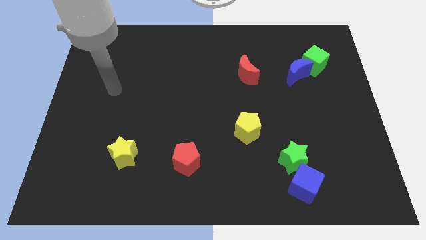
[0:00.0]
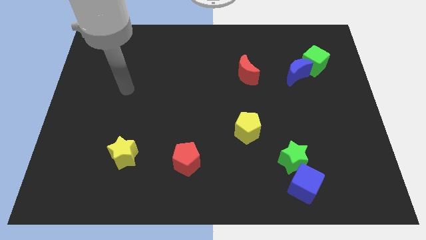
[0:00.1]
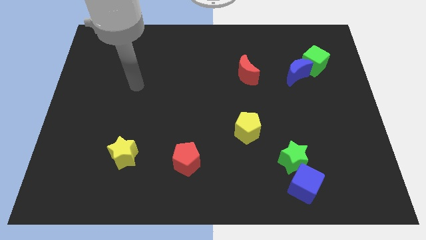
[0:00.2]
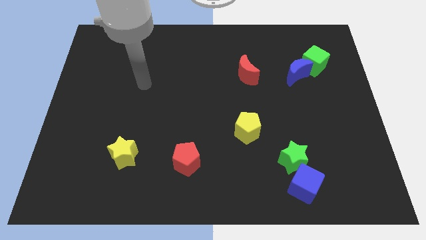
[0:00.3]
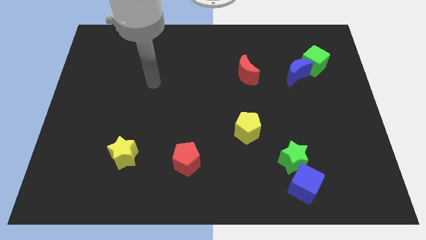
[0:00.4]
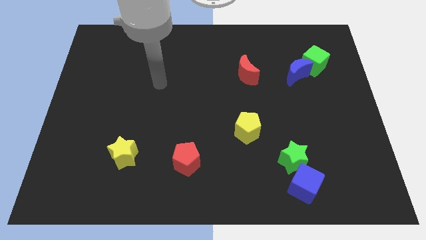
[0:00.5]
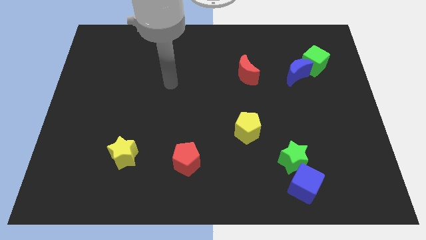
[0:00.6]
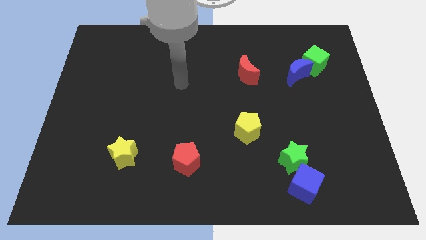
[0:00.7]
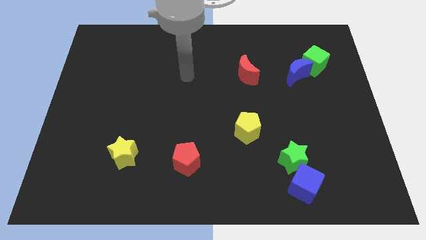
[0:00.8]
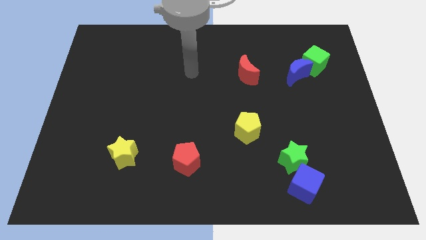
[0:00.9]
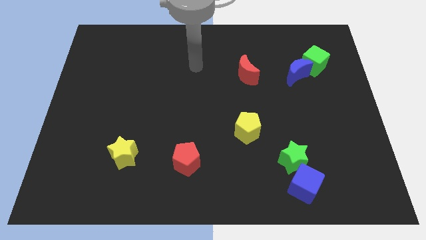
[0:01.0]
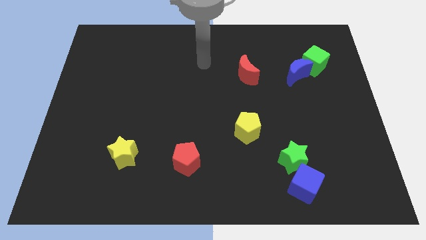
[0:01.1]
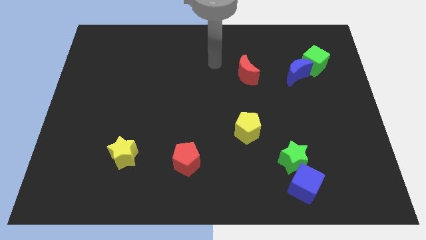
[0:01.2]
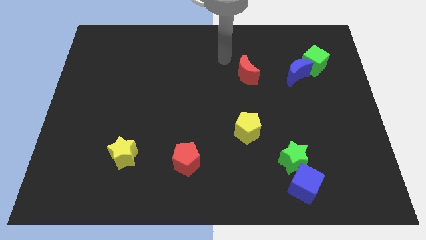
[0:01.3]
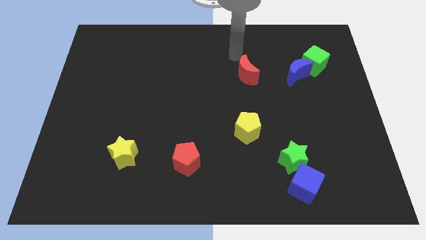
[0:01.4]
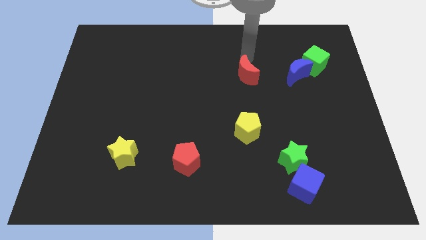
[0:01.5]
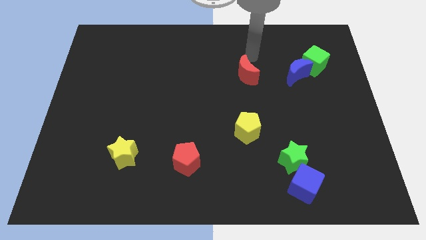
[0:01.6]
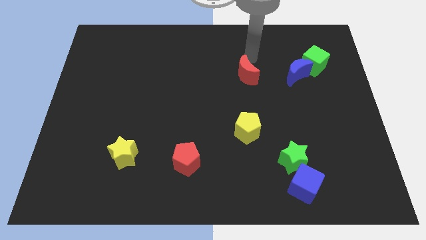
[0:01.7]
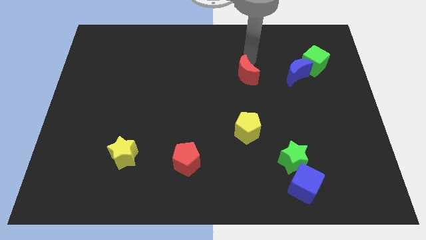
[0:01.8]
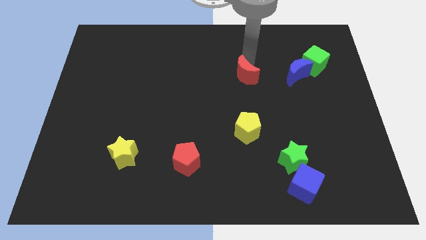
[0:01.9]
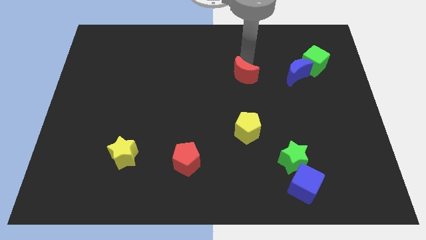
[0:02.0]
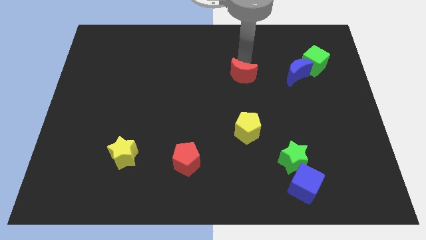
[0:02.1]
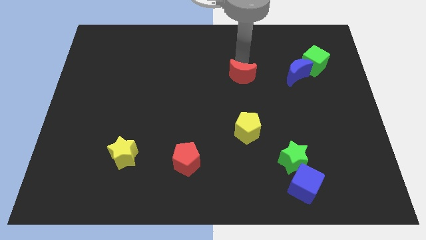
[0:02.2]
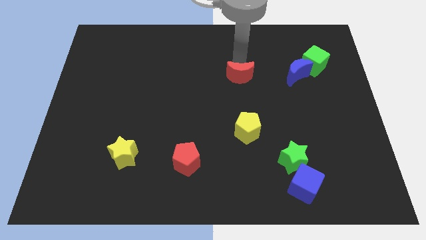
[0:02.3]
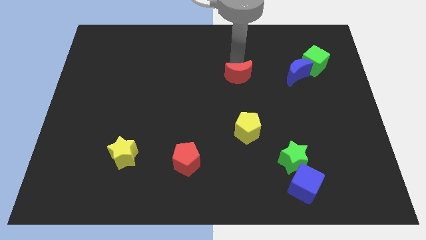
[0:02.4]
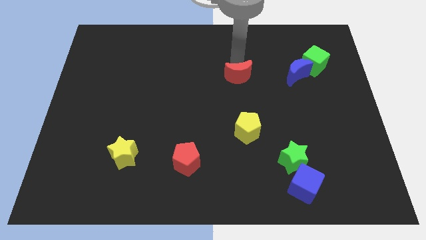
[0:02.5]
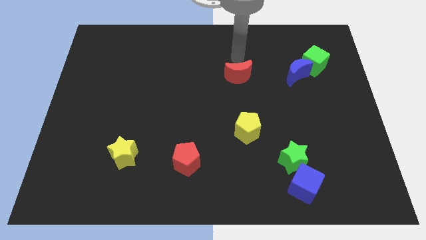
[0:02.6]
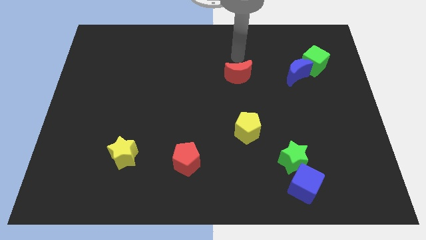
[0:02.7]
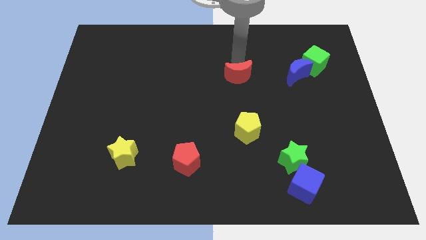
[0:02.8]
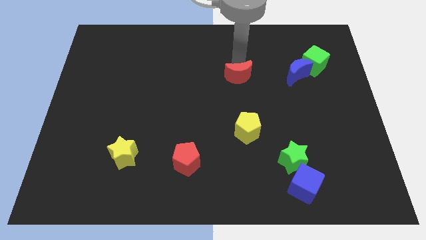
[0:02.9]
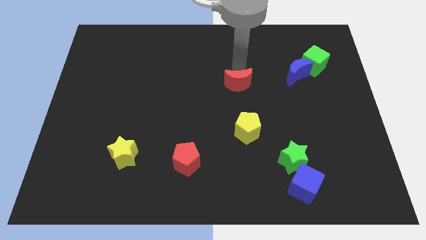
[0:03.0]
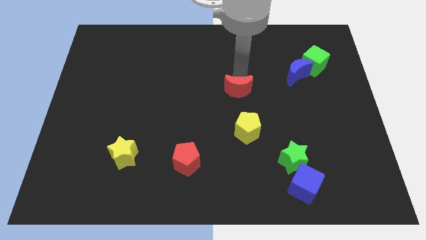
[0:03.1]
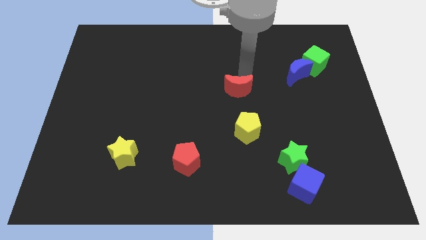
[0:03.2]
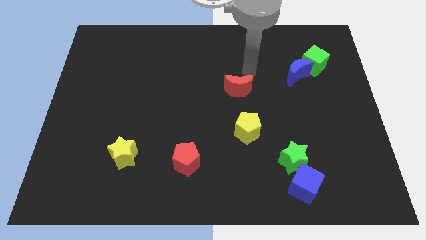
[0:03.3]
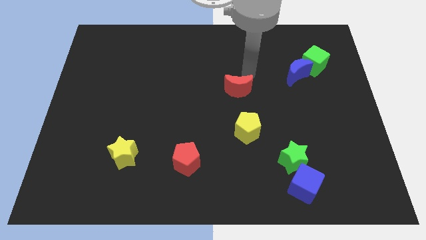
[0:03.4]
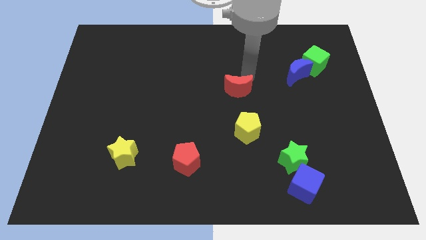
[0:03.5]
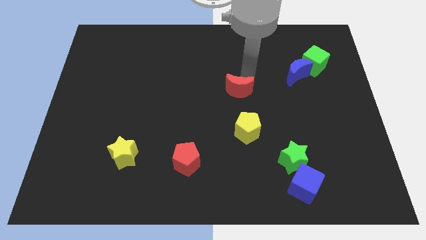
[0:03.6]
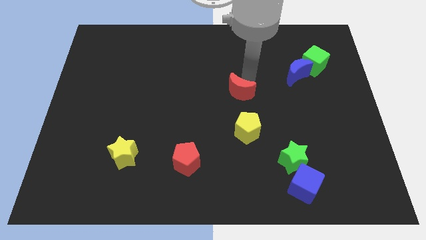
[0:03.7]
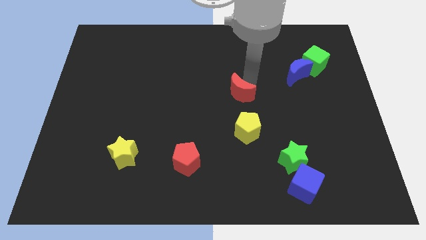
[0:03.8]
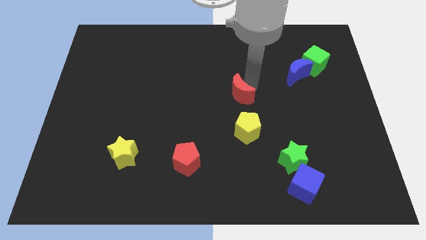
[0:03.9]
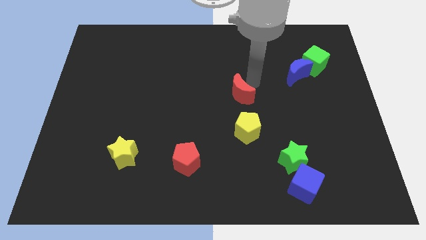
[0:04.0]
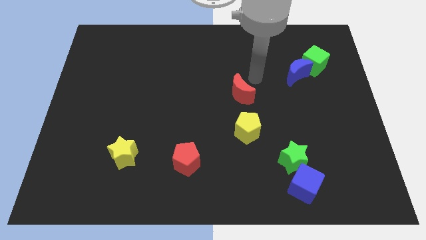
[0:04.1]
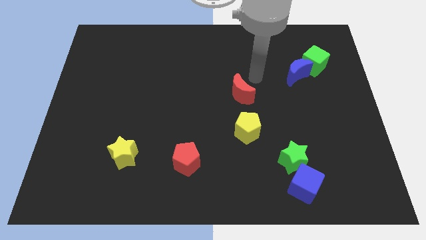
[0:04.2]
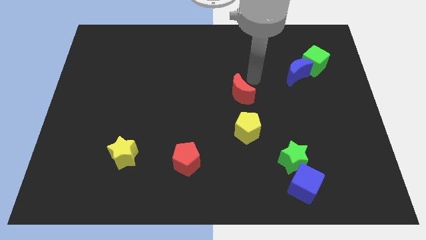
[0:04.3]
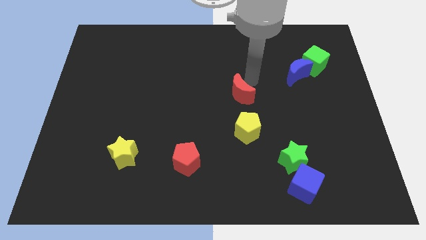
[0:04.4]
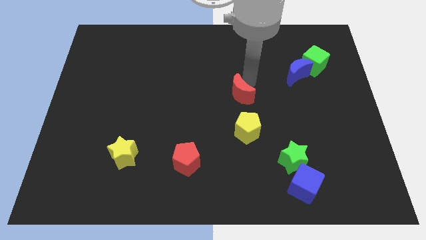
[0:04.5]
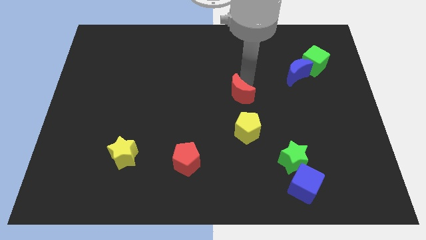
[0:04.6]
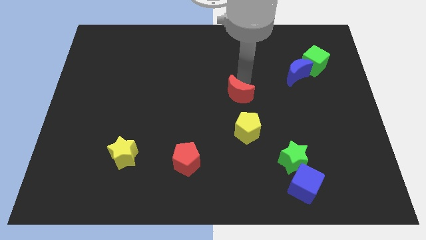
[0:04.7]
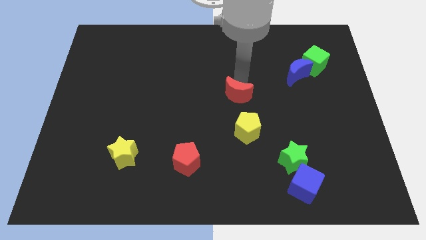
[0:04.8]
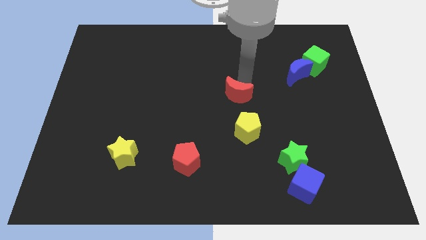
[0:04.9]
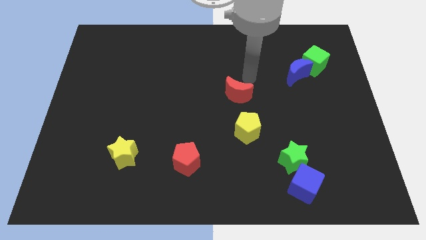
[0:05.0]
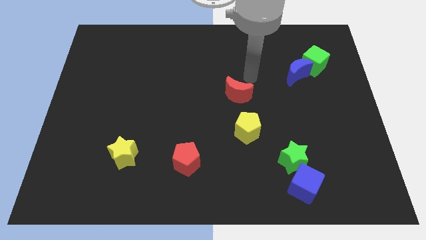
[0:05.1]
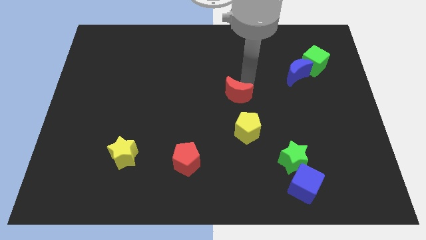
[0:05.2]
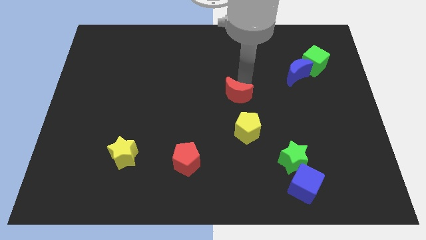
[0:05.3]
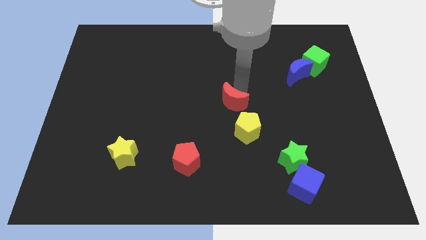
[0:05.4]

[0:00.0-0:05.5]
put the red moon to the top left of the yellow pentagon

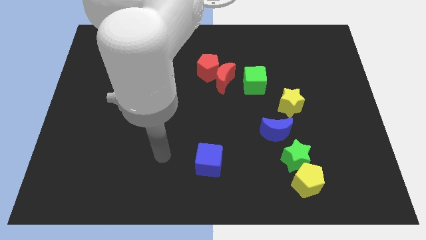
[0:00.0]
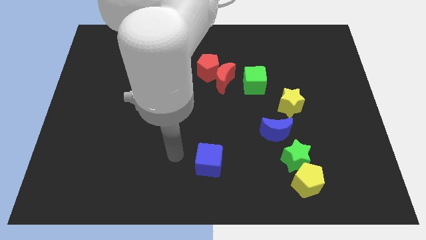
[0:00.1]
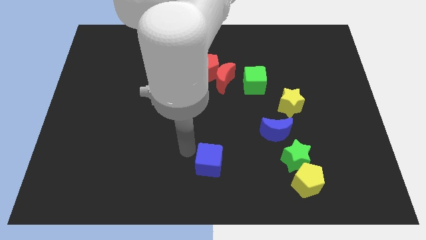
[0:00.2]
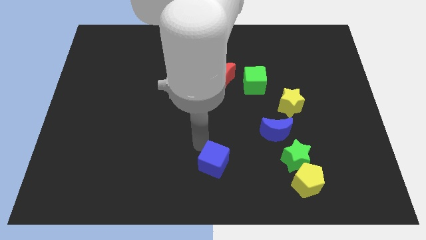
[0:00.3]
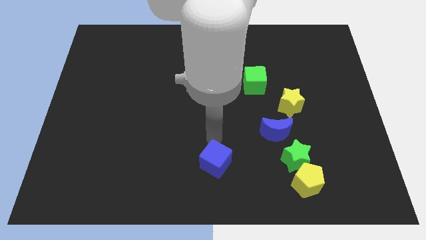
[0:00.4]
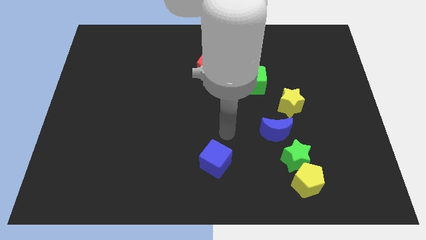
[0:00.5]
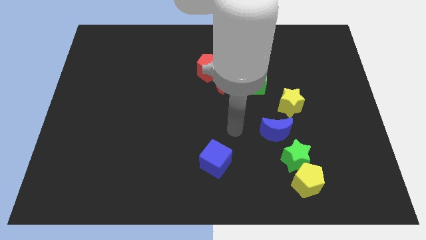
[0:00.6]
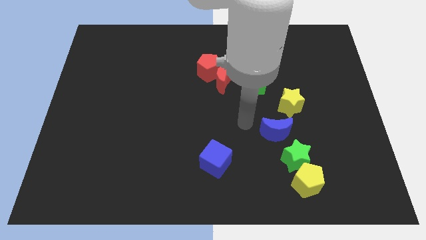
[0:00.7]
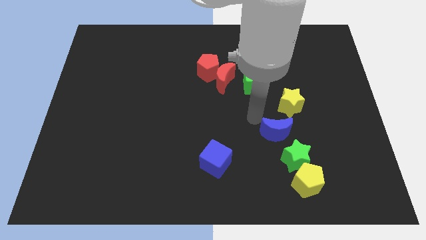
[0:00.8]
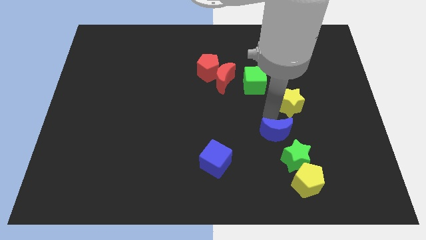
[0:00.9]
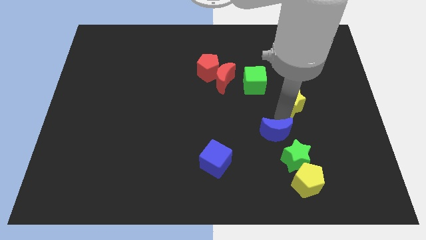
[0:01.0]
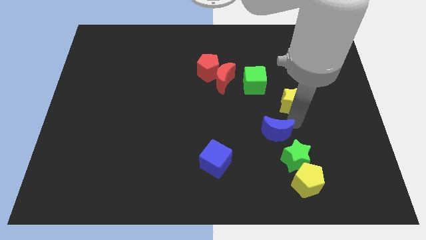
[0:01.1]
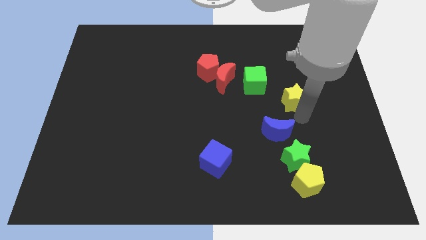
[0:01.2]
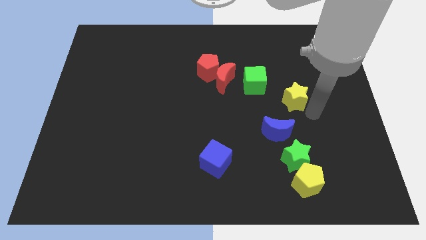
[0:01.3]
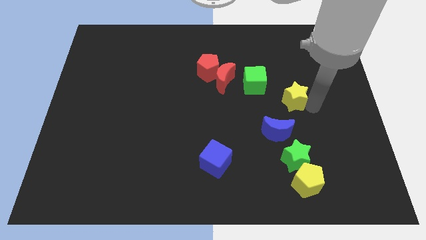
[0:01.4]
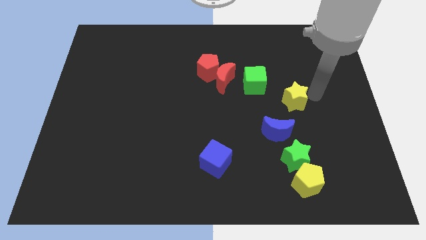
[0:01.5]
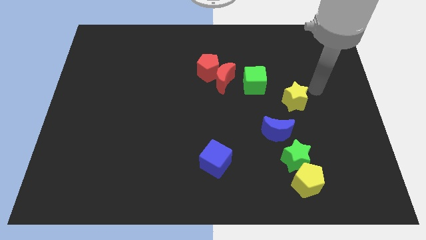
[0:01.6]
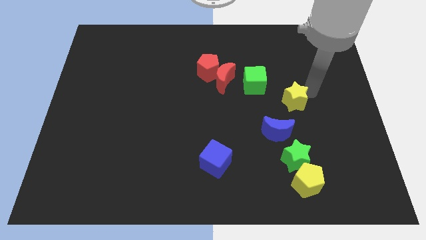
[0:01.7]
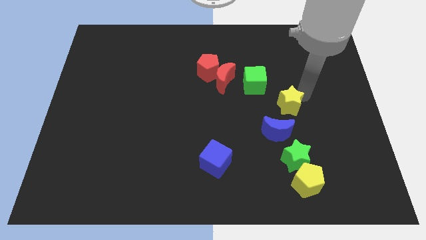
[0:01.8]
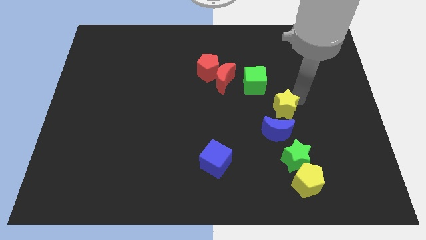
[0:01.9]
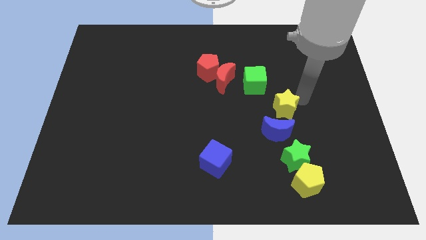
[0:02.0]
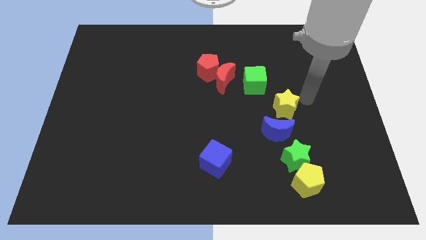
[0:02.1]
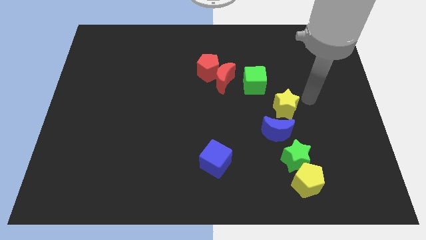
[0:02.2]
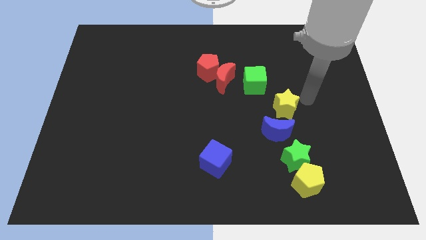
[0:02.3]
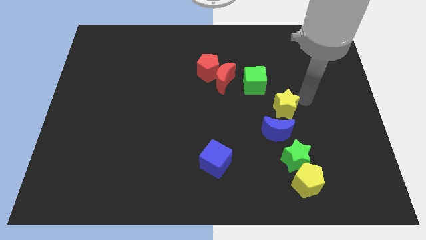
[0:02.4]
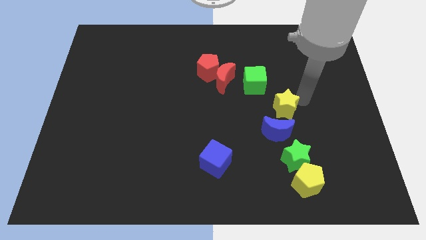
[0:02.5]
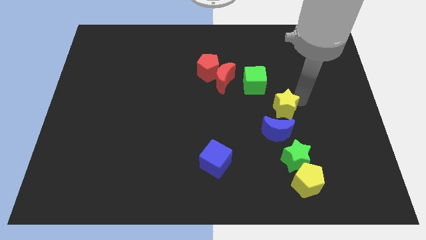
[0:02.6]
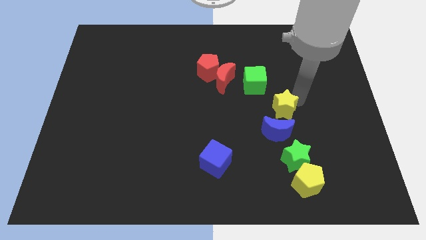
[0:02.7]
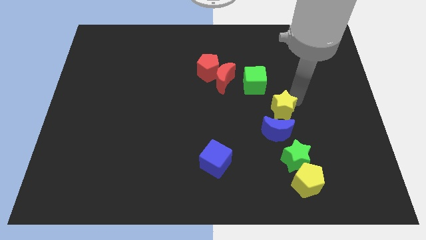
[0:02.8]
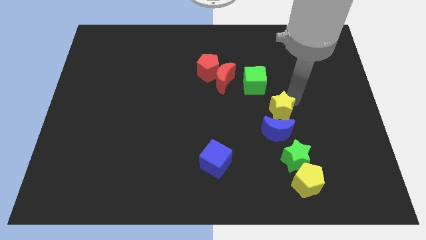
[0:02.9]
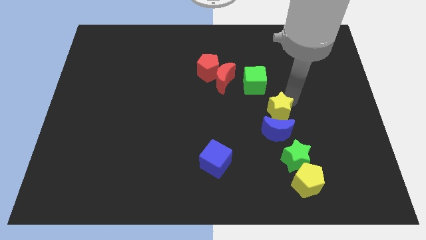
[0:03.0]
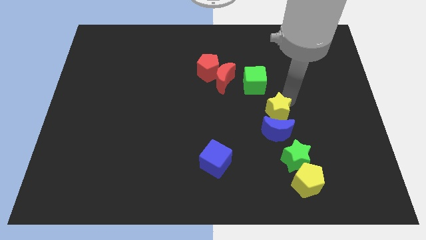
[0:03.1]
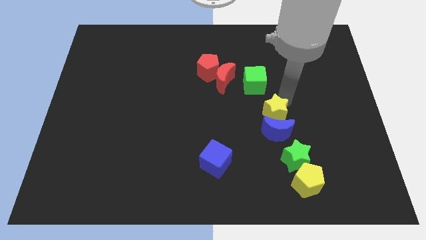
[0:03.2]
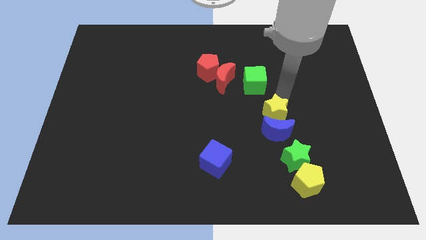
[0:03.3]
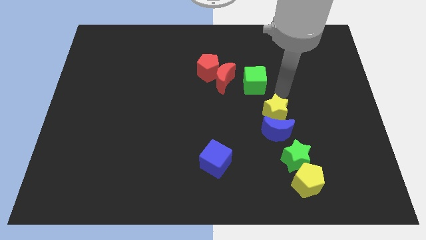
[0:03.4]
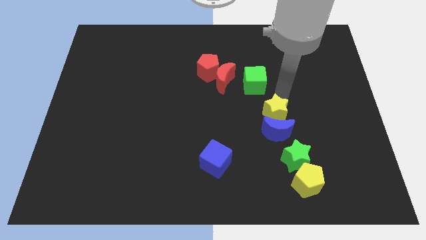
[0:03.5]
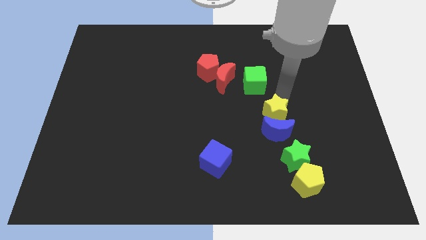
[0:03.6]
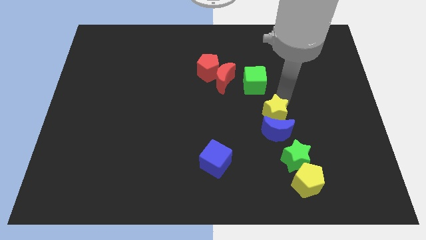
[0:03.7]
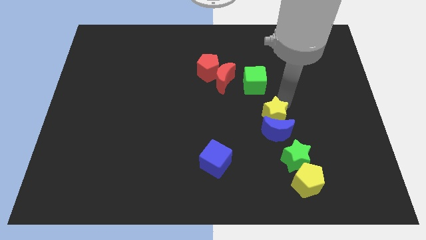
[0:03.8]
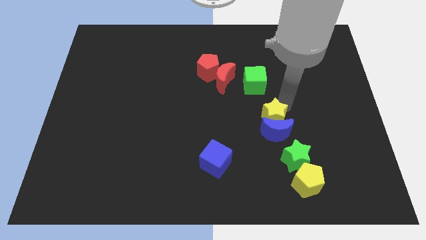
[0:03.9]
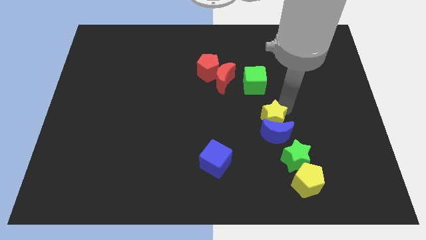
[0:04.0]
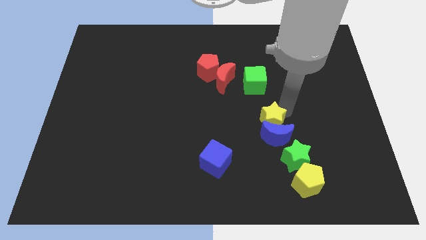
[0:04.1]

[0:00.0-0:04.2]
put the yellow star diagonally up and to the left of the green star
